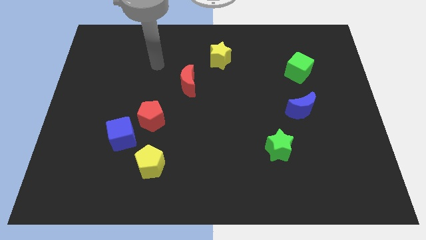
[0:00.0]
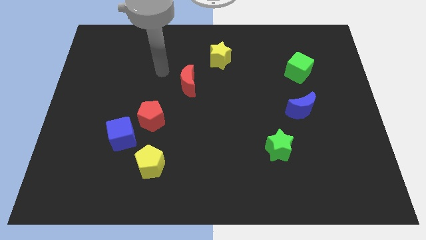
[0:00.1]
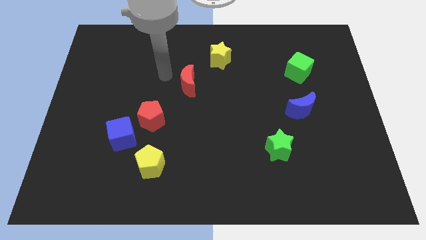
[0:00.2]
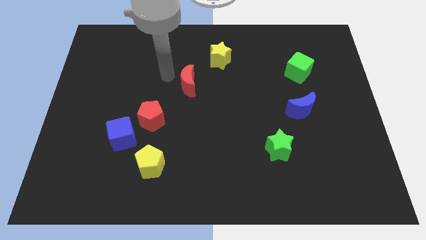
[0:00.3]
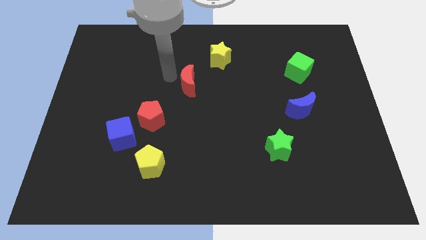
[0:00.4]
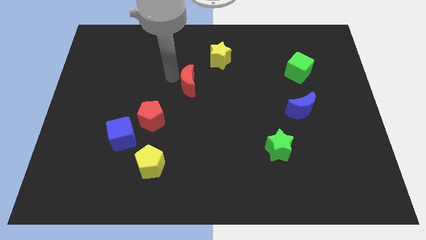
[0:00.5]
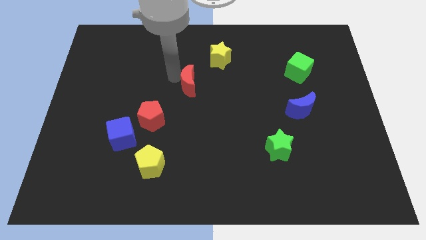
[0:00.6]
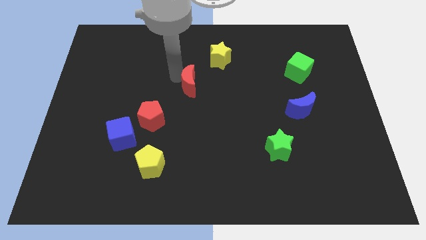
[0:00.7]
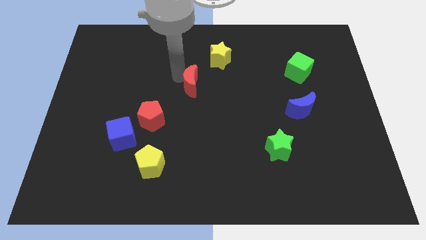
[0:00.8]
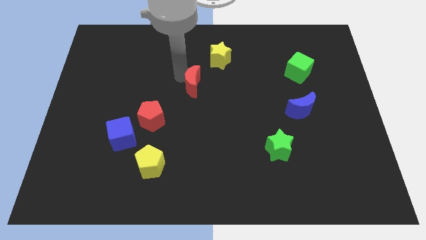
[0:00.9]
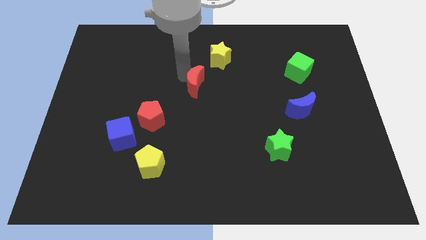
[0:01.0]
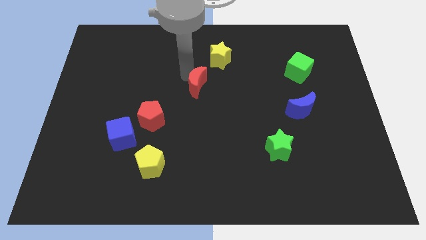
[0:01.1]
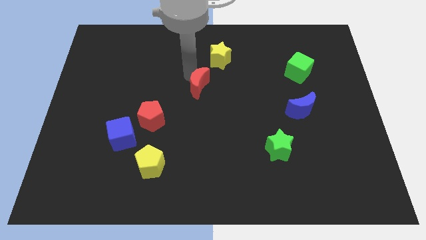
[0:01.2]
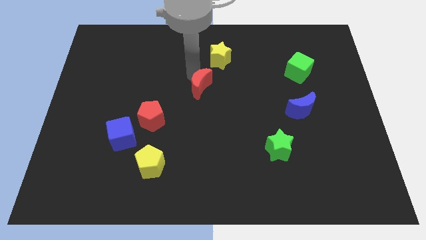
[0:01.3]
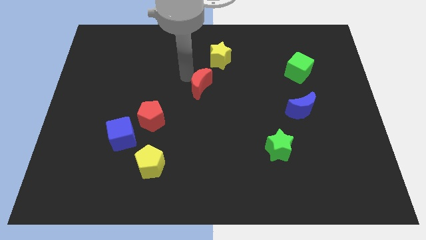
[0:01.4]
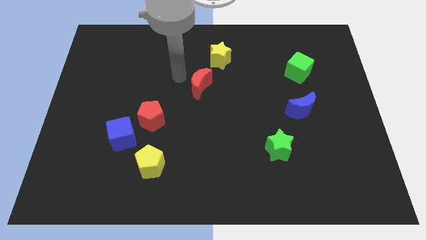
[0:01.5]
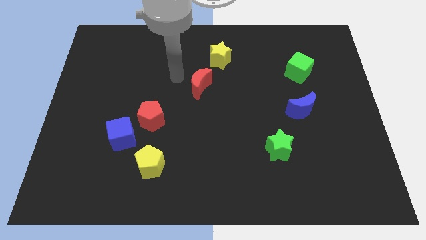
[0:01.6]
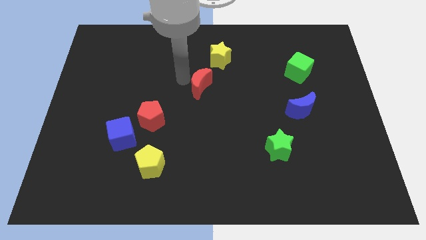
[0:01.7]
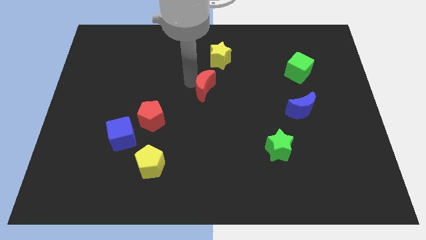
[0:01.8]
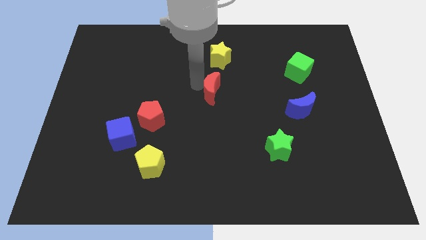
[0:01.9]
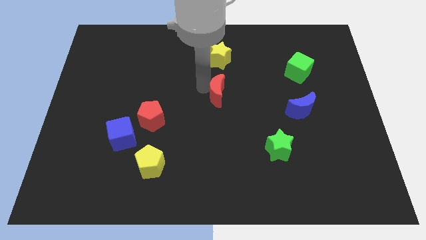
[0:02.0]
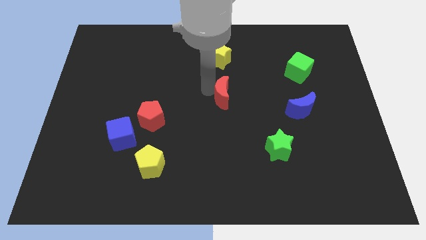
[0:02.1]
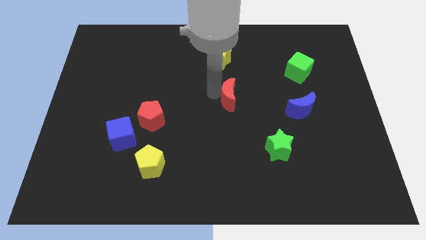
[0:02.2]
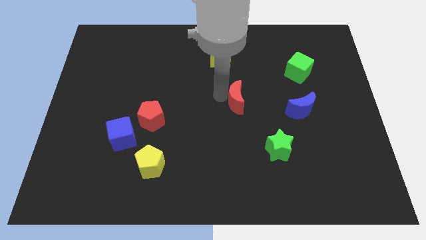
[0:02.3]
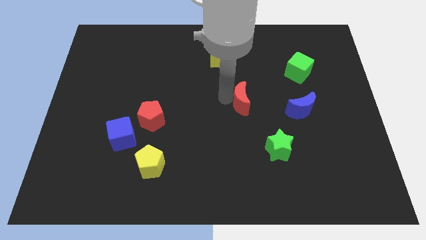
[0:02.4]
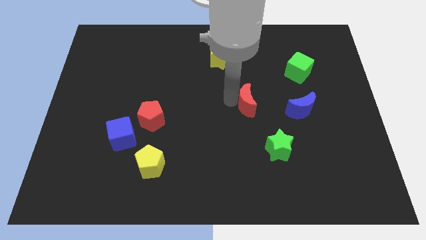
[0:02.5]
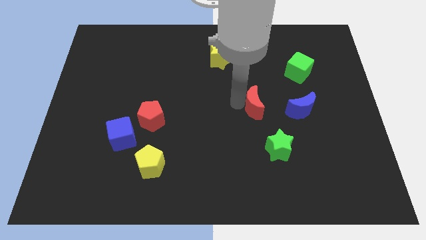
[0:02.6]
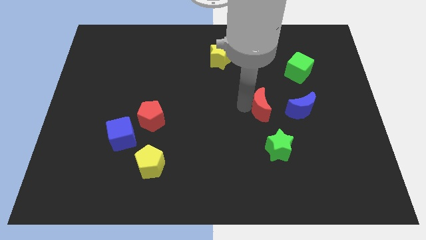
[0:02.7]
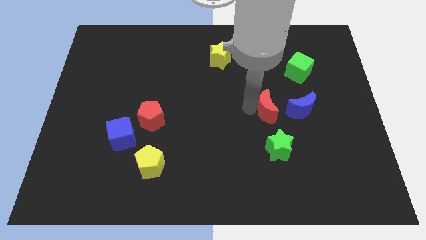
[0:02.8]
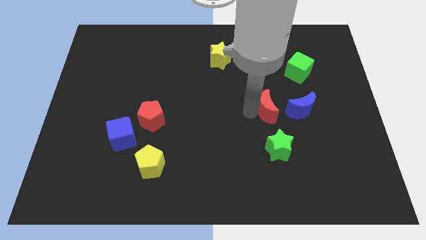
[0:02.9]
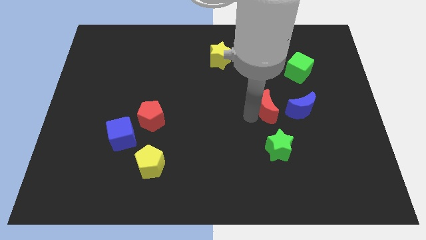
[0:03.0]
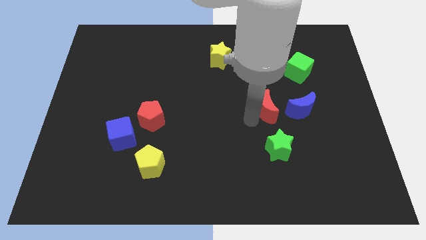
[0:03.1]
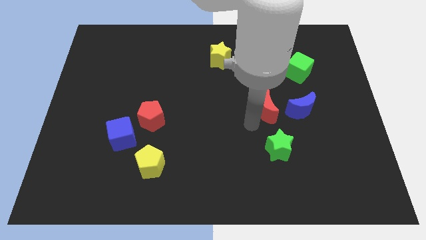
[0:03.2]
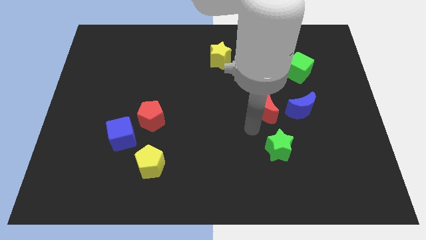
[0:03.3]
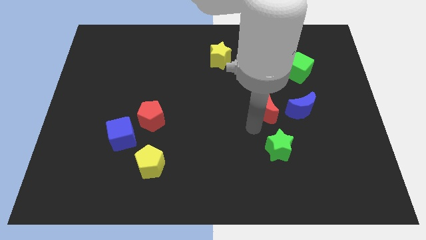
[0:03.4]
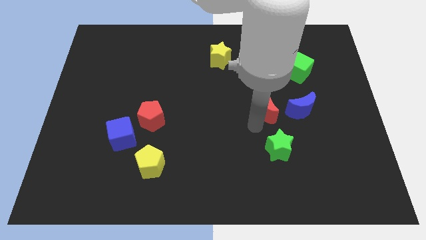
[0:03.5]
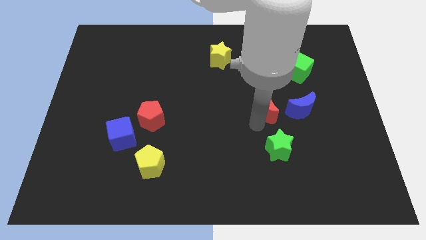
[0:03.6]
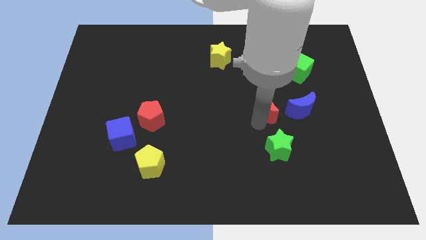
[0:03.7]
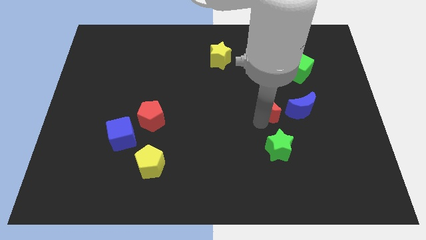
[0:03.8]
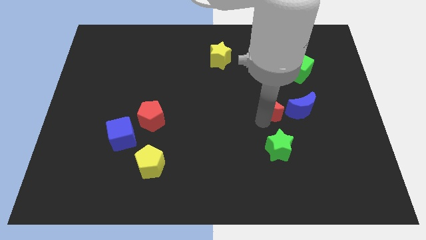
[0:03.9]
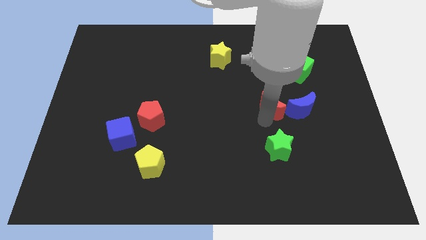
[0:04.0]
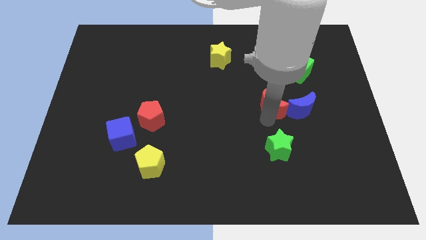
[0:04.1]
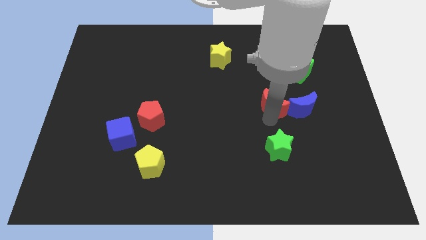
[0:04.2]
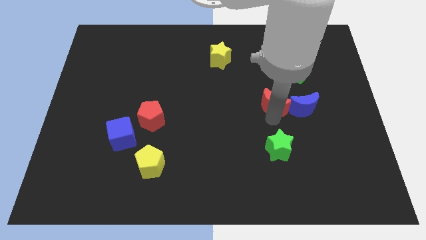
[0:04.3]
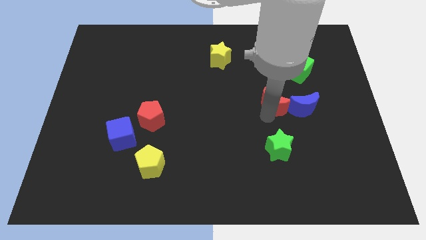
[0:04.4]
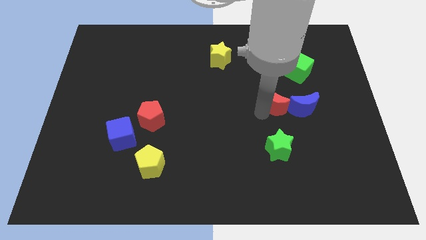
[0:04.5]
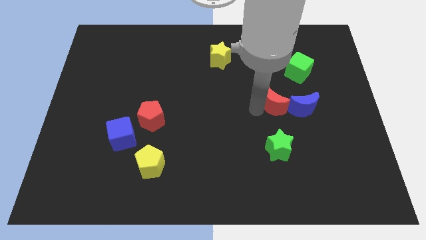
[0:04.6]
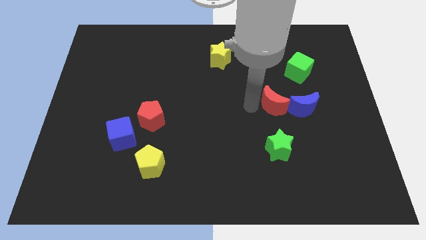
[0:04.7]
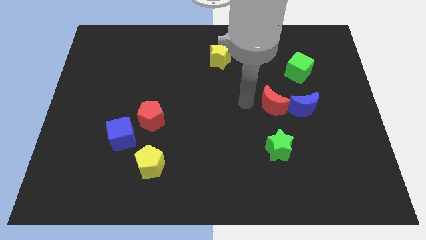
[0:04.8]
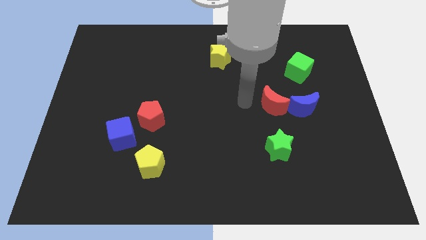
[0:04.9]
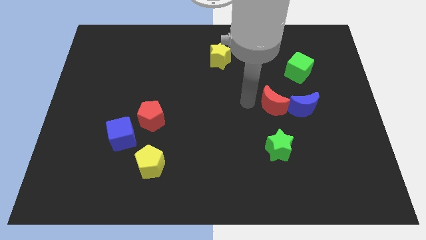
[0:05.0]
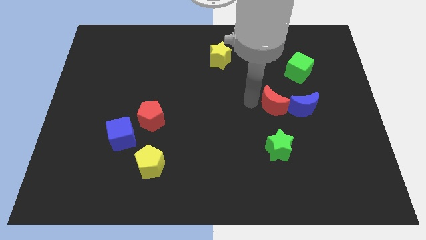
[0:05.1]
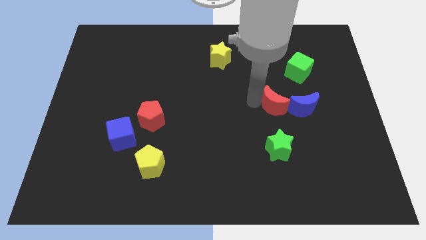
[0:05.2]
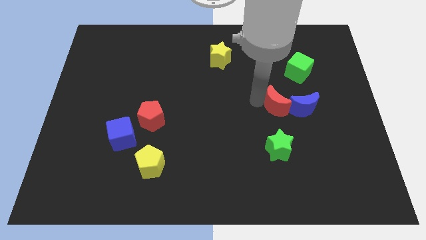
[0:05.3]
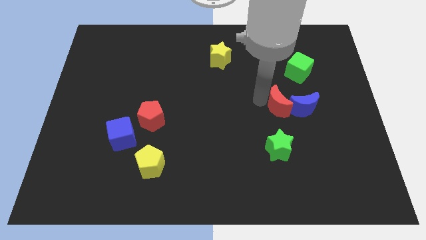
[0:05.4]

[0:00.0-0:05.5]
slide the red moon next to the blue moon

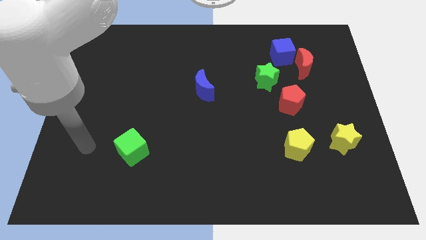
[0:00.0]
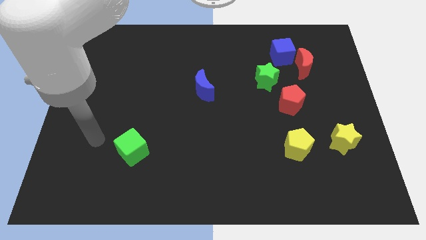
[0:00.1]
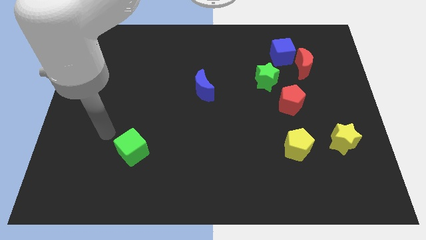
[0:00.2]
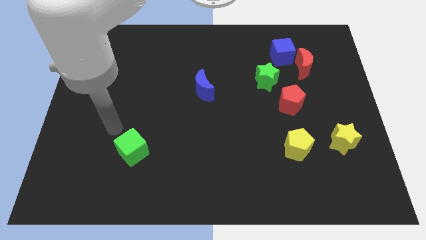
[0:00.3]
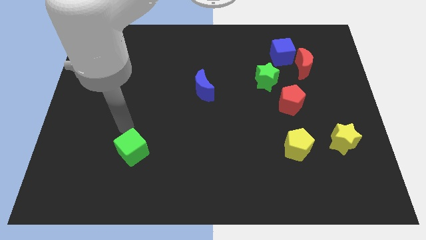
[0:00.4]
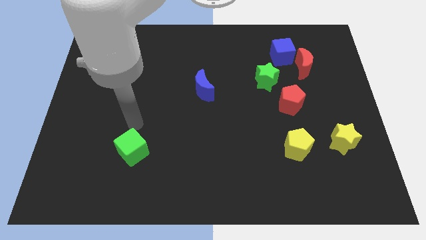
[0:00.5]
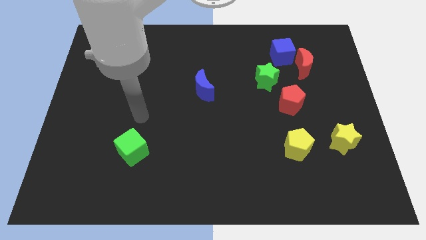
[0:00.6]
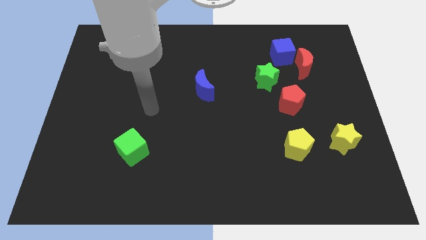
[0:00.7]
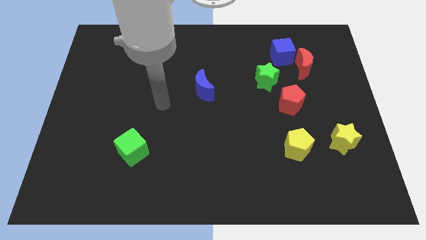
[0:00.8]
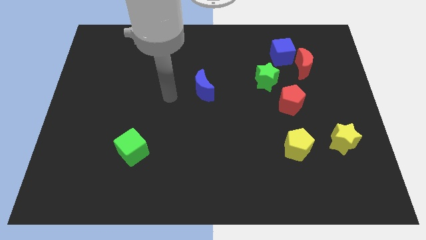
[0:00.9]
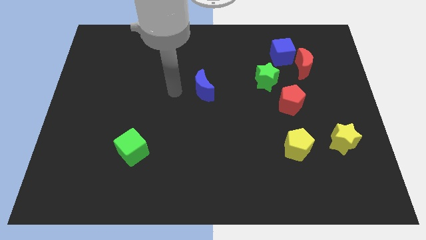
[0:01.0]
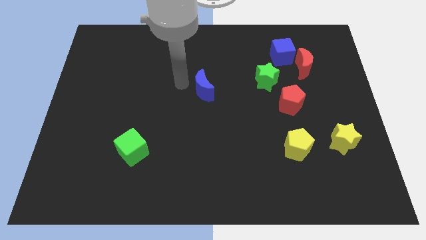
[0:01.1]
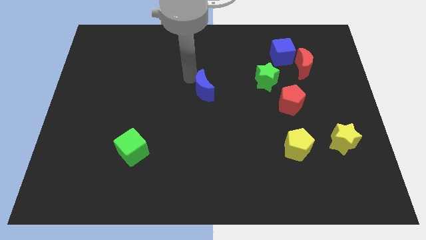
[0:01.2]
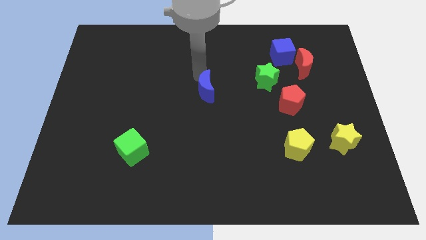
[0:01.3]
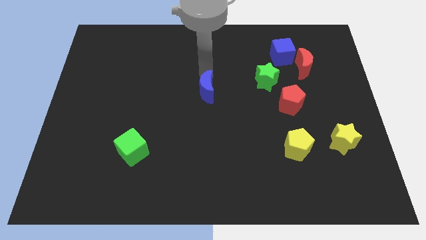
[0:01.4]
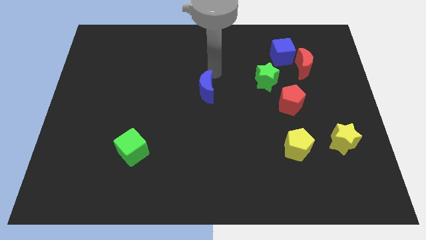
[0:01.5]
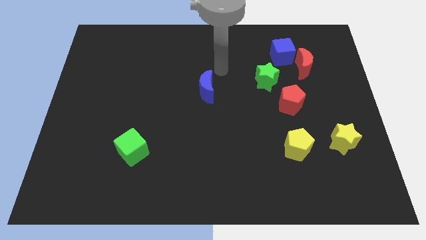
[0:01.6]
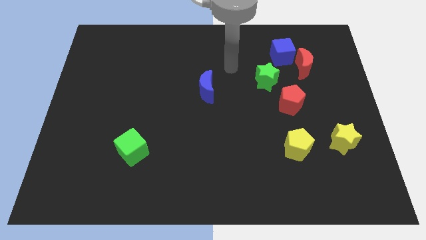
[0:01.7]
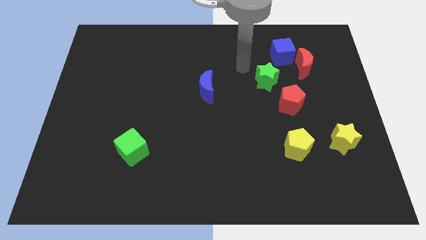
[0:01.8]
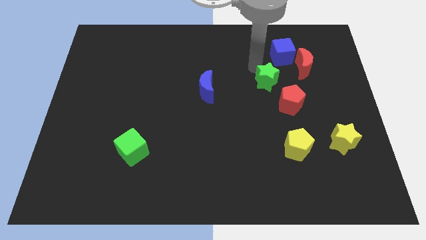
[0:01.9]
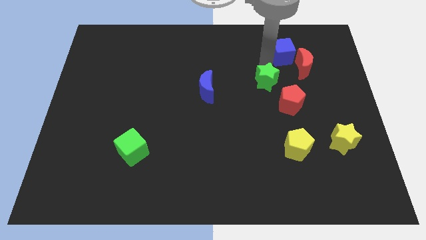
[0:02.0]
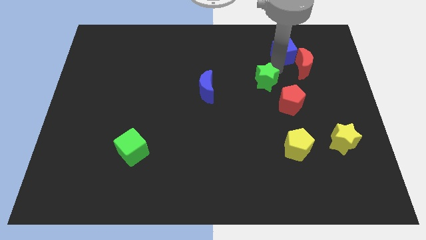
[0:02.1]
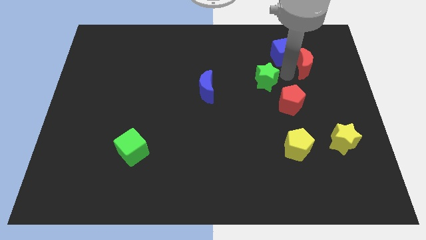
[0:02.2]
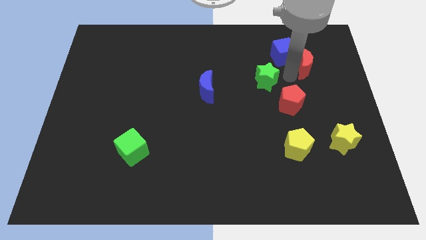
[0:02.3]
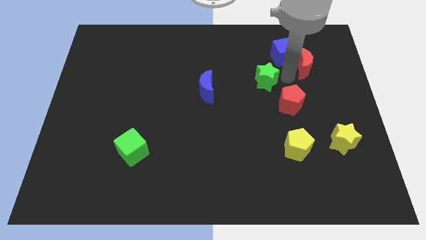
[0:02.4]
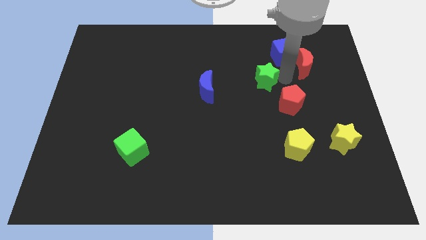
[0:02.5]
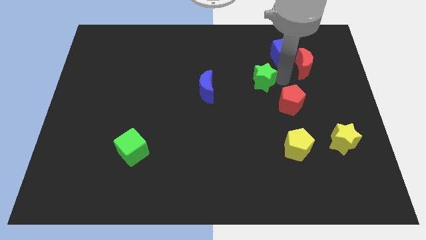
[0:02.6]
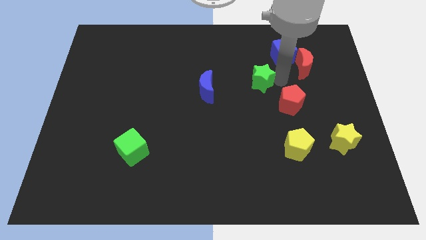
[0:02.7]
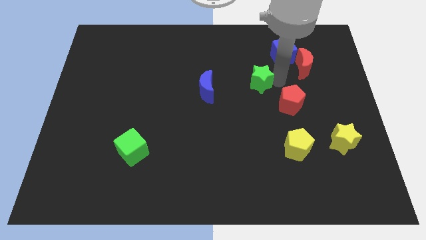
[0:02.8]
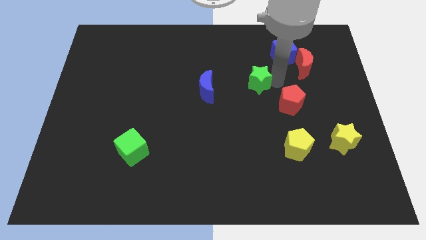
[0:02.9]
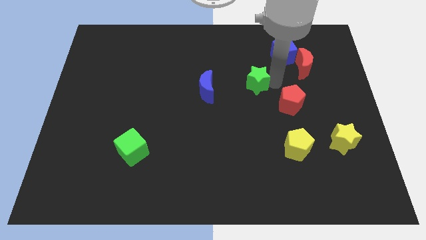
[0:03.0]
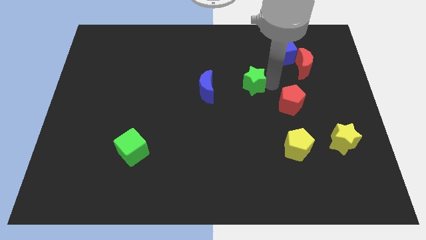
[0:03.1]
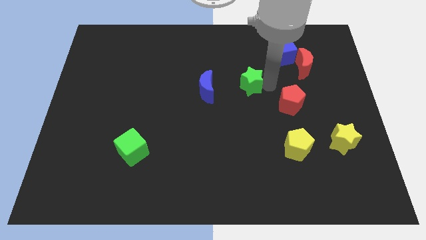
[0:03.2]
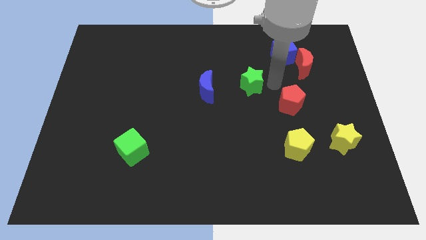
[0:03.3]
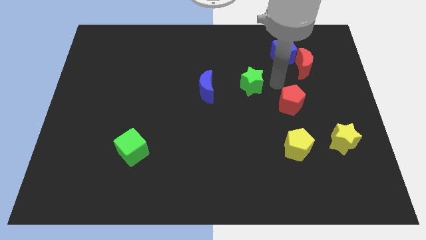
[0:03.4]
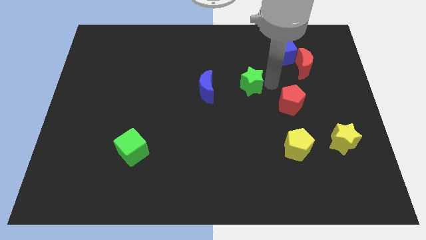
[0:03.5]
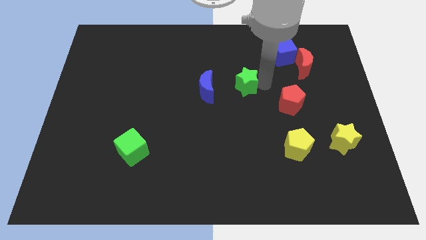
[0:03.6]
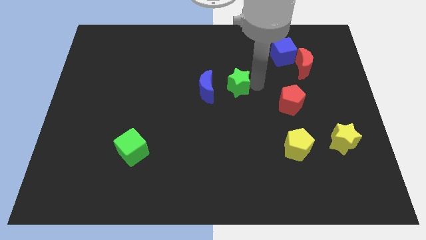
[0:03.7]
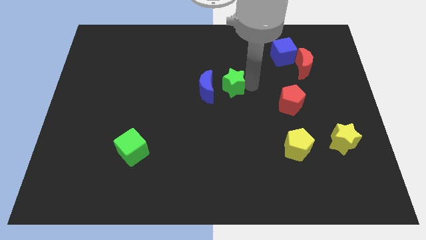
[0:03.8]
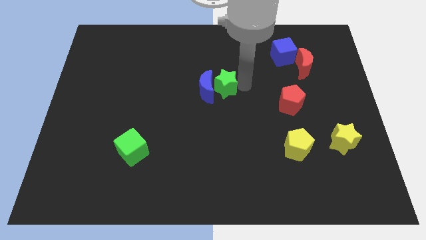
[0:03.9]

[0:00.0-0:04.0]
push the green star close to the blue moon
